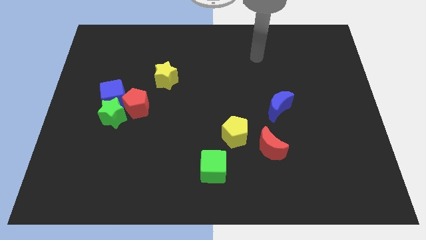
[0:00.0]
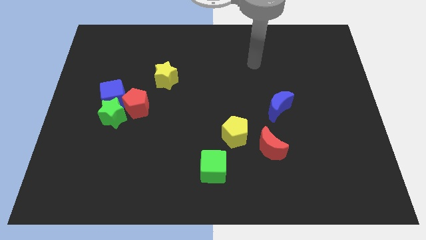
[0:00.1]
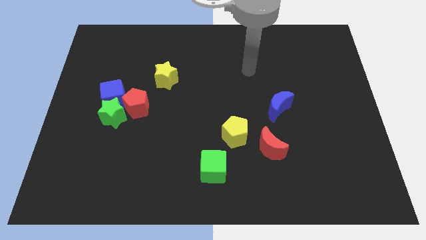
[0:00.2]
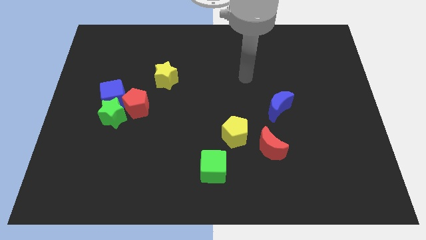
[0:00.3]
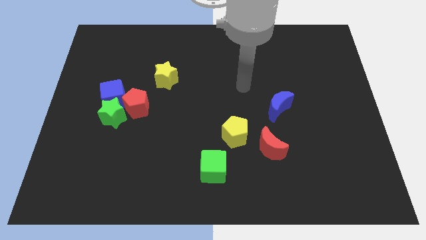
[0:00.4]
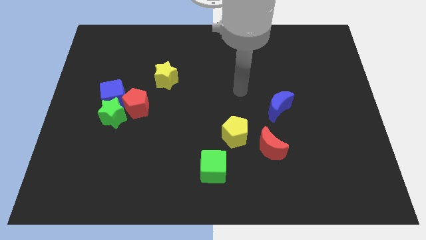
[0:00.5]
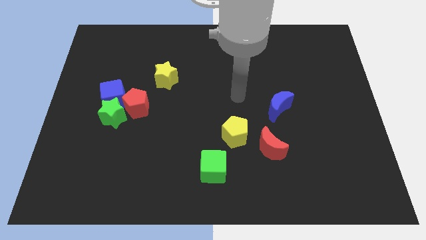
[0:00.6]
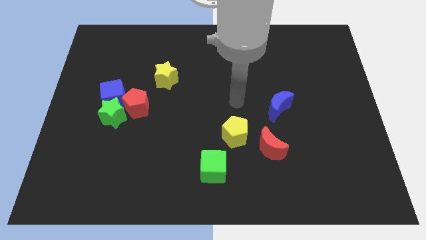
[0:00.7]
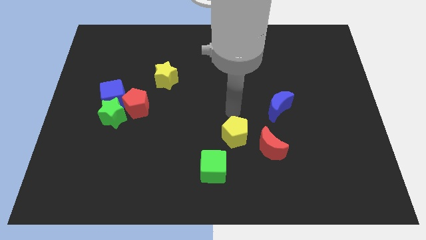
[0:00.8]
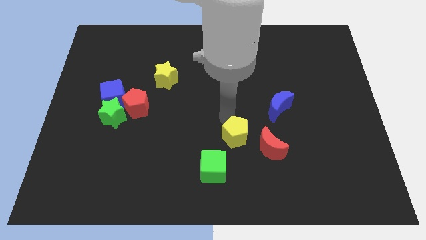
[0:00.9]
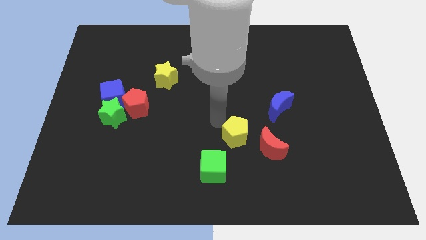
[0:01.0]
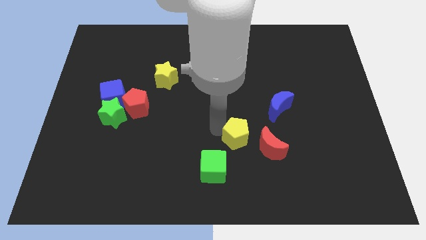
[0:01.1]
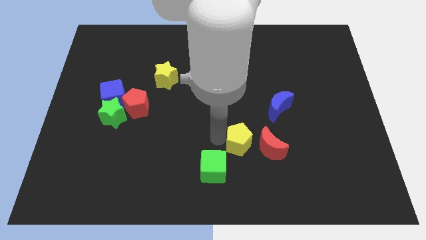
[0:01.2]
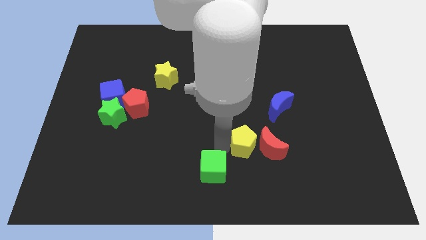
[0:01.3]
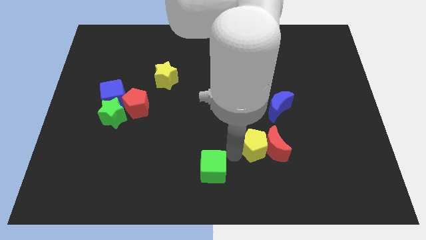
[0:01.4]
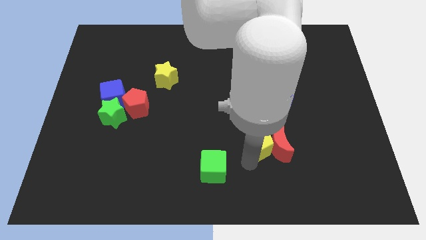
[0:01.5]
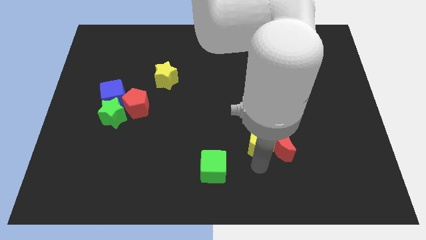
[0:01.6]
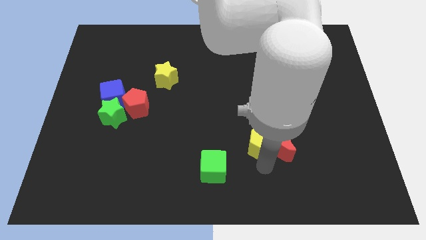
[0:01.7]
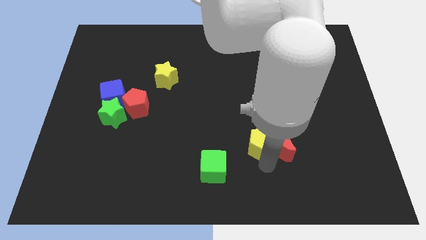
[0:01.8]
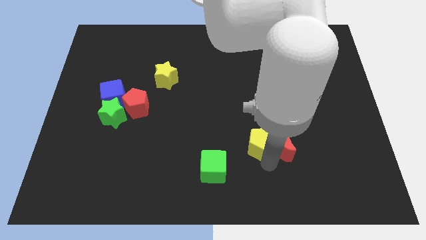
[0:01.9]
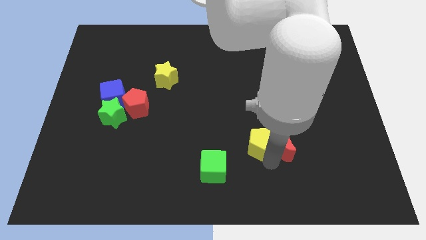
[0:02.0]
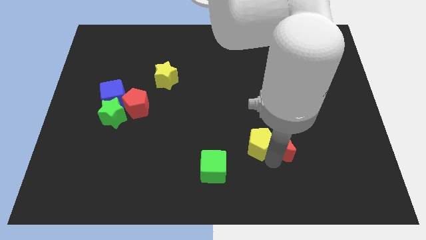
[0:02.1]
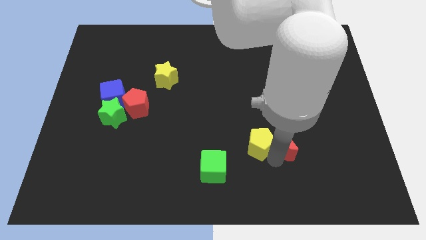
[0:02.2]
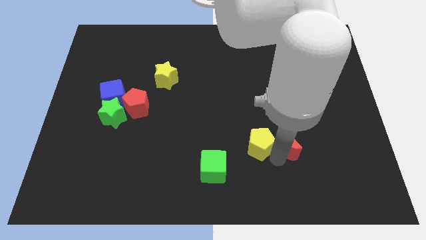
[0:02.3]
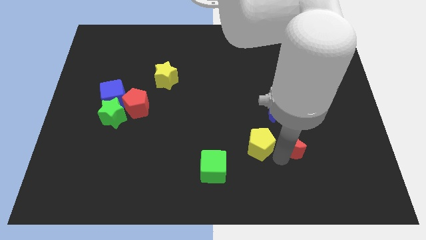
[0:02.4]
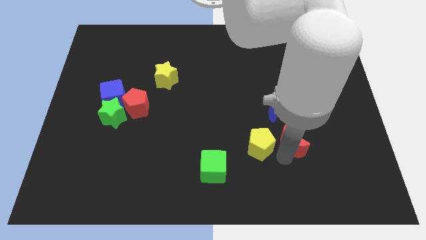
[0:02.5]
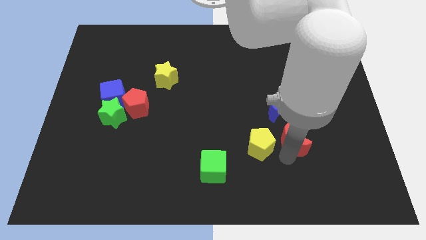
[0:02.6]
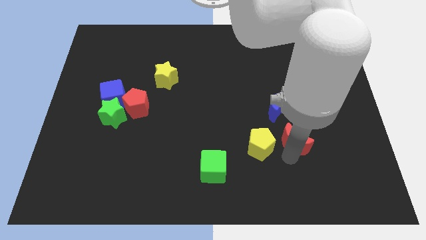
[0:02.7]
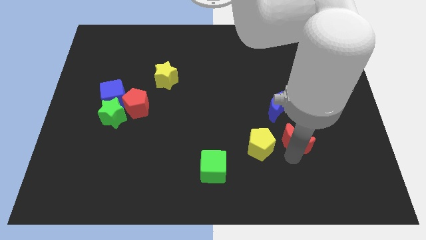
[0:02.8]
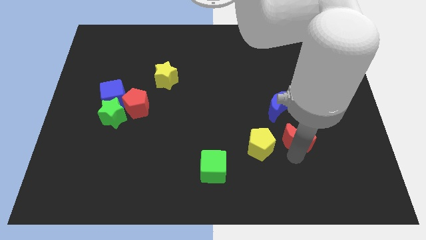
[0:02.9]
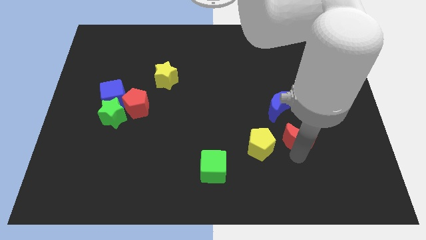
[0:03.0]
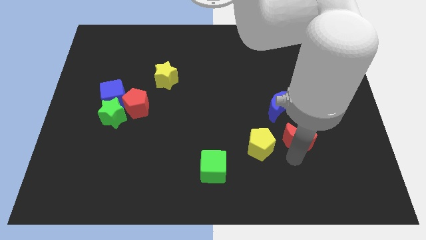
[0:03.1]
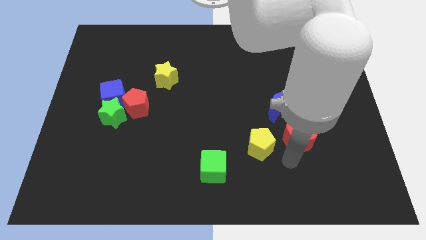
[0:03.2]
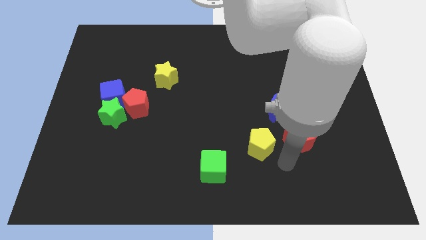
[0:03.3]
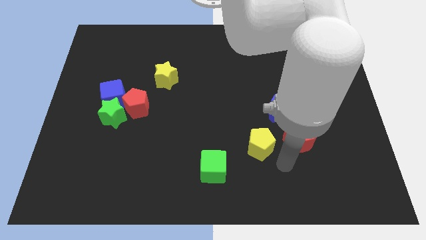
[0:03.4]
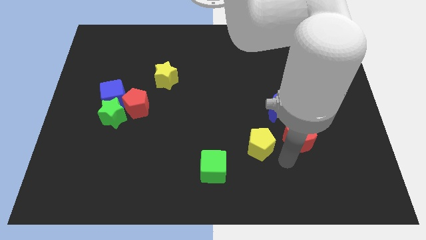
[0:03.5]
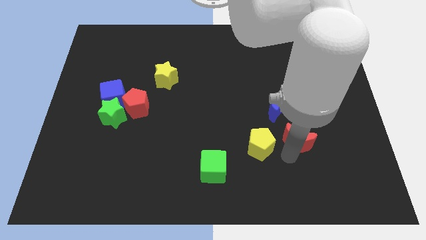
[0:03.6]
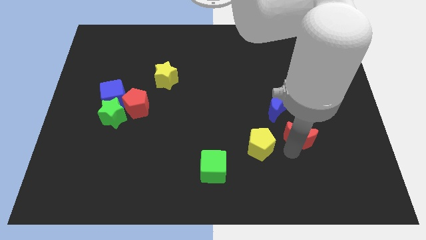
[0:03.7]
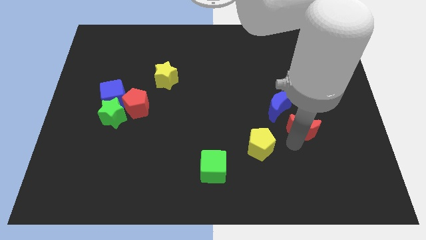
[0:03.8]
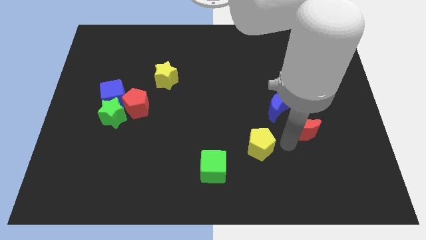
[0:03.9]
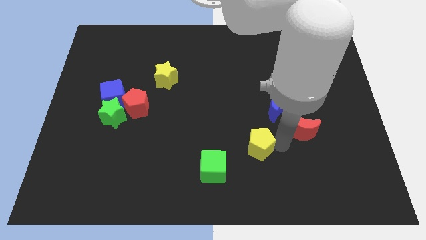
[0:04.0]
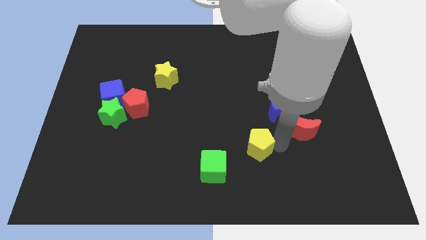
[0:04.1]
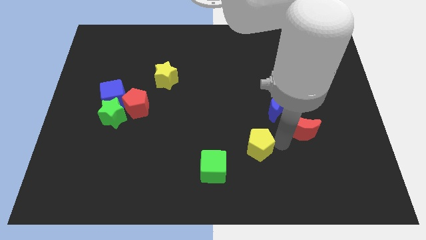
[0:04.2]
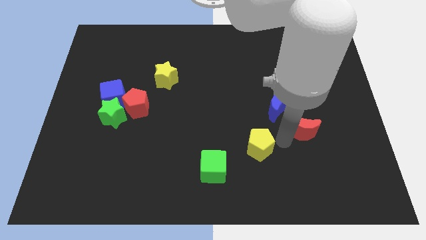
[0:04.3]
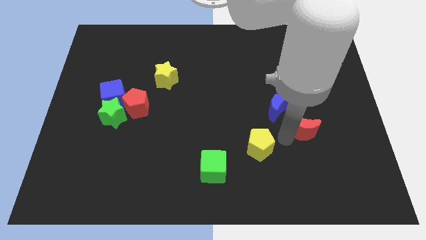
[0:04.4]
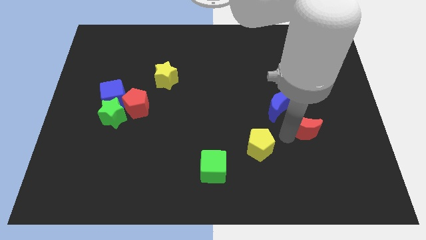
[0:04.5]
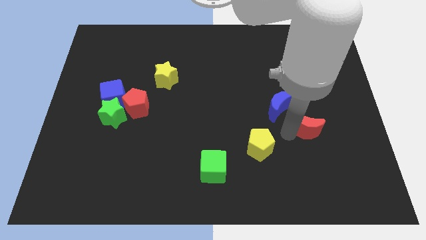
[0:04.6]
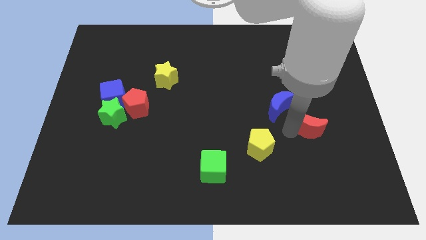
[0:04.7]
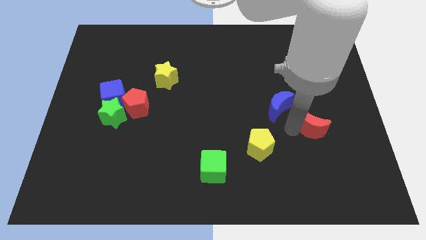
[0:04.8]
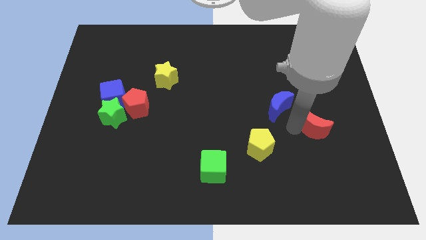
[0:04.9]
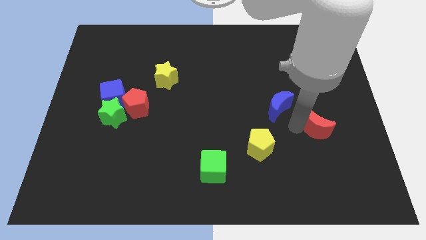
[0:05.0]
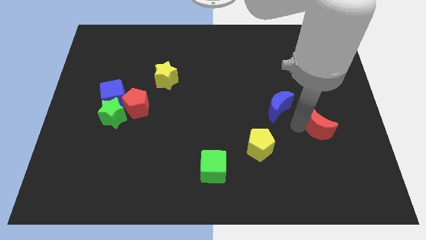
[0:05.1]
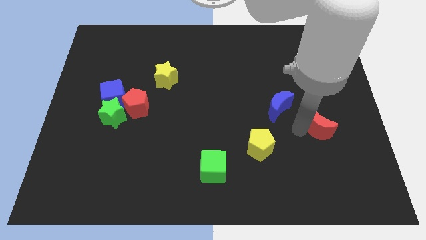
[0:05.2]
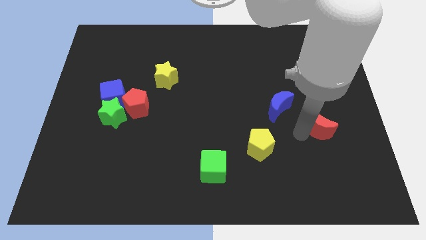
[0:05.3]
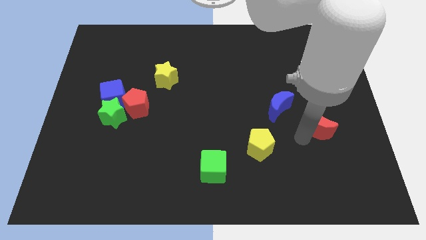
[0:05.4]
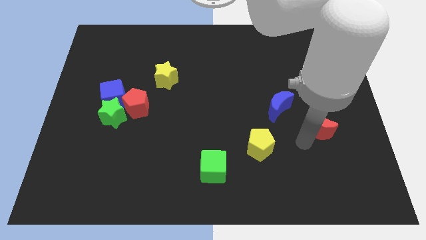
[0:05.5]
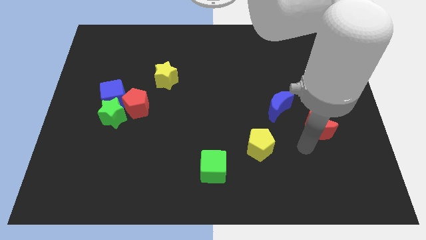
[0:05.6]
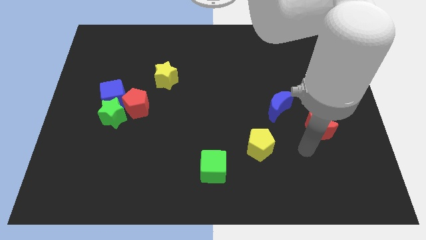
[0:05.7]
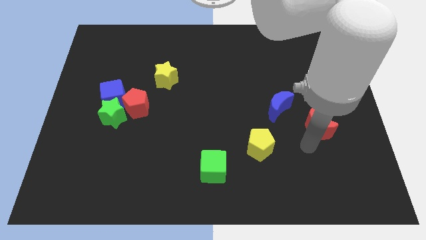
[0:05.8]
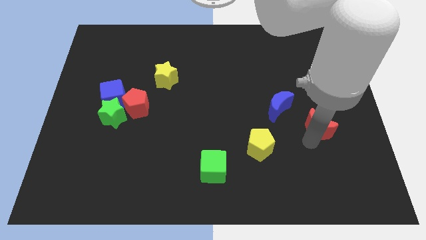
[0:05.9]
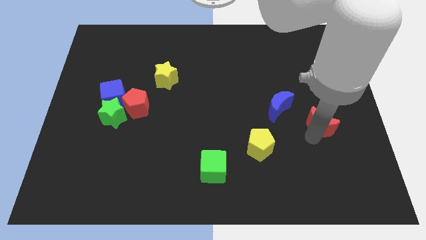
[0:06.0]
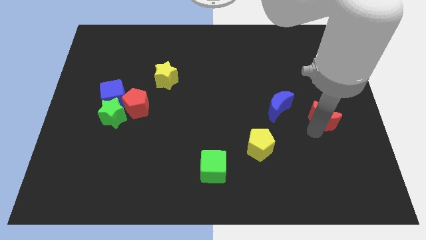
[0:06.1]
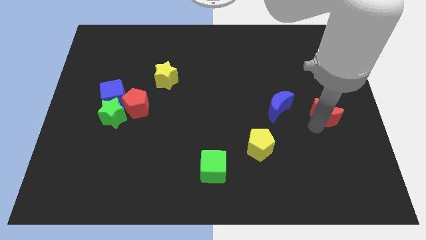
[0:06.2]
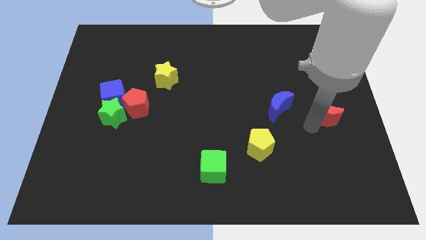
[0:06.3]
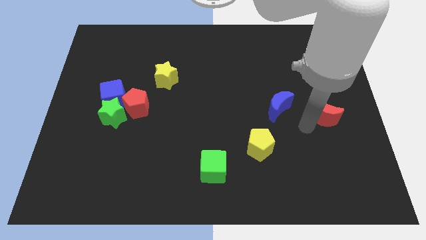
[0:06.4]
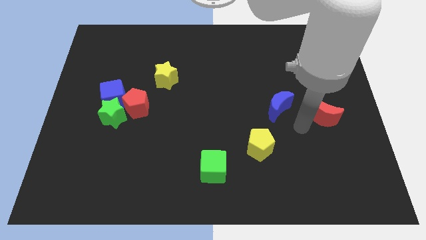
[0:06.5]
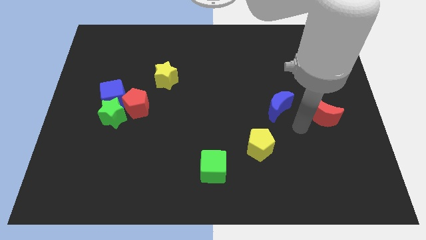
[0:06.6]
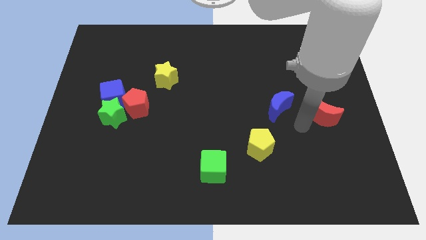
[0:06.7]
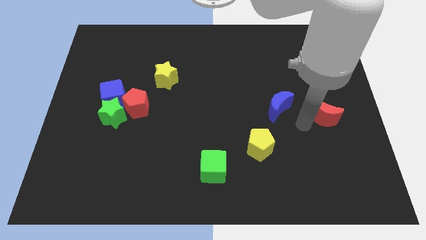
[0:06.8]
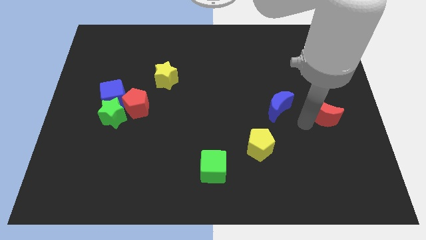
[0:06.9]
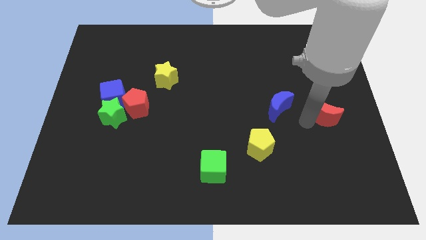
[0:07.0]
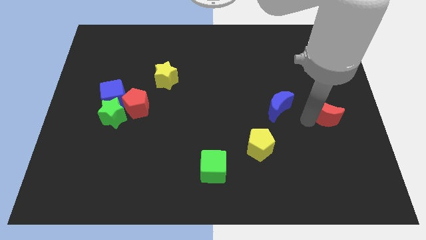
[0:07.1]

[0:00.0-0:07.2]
slide the red moon to the right side
